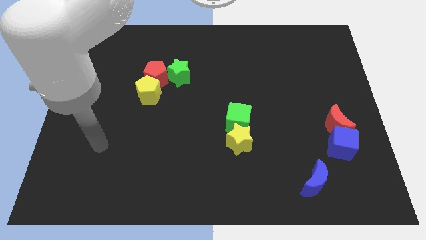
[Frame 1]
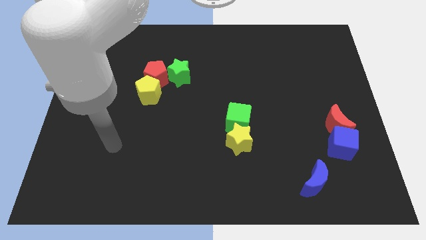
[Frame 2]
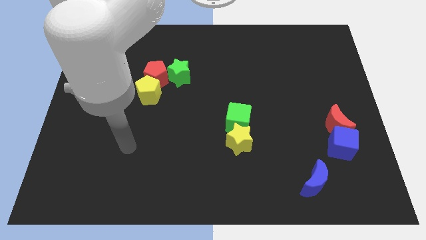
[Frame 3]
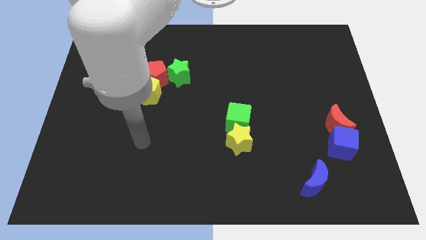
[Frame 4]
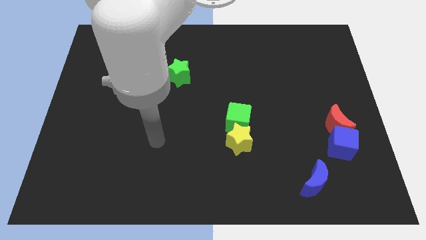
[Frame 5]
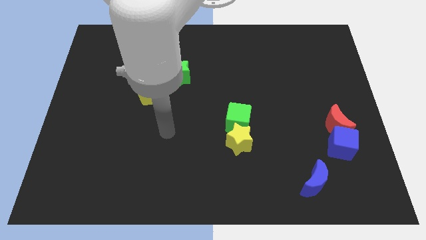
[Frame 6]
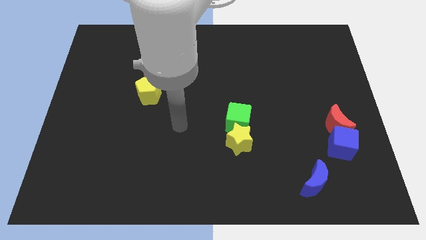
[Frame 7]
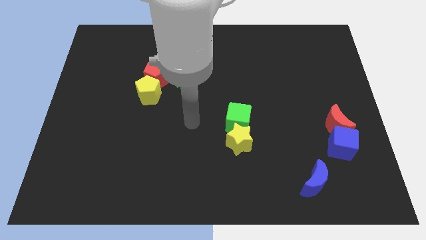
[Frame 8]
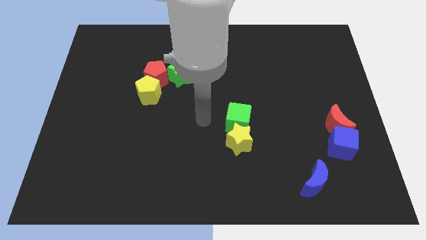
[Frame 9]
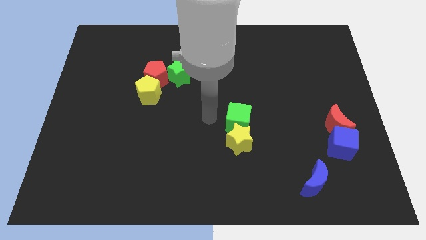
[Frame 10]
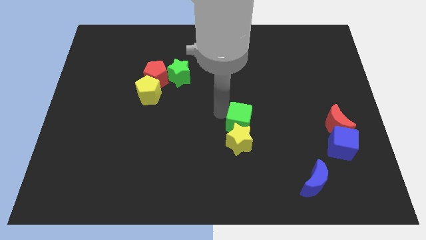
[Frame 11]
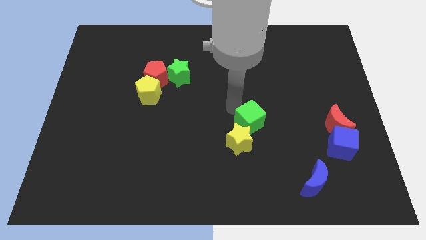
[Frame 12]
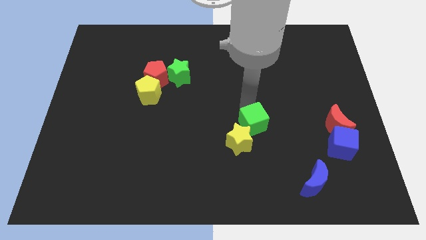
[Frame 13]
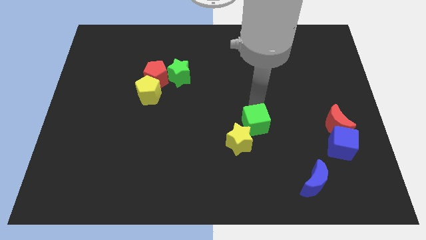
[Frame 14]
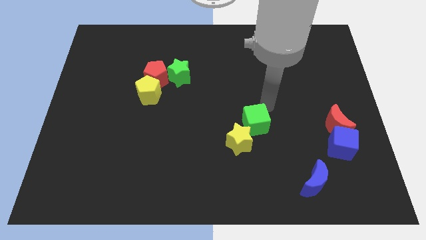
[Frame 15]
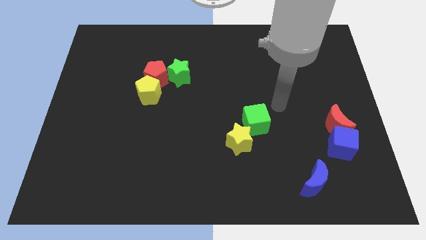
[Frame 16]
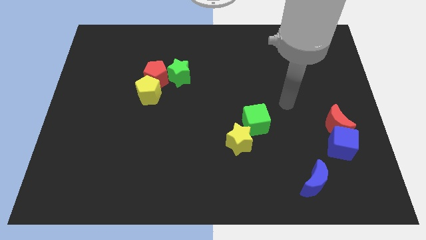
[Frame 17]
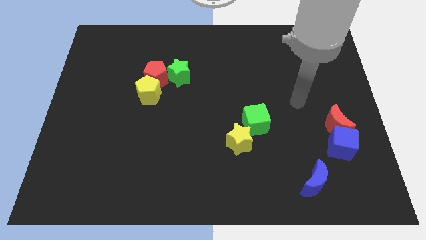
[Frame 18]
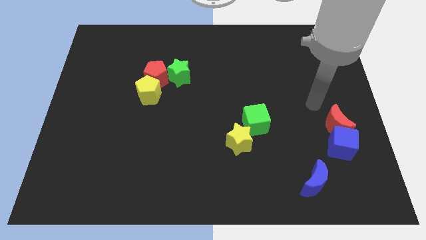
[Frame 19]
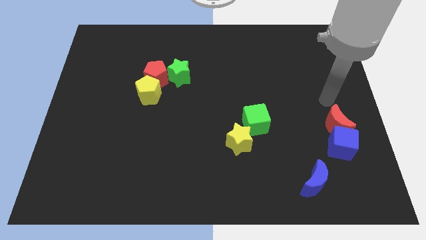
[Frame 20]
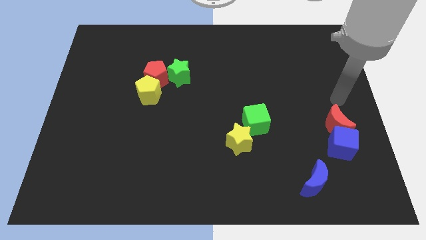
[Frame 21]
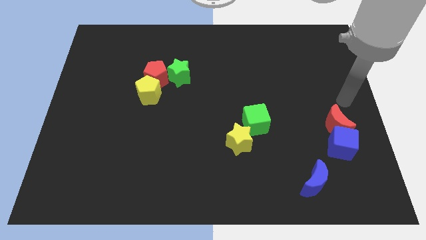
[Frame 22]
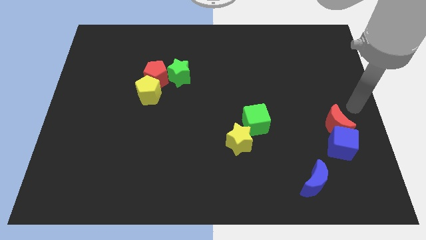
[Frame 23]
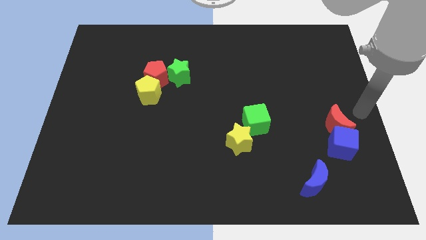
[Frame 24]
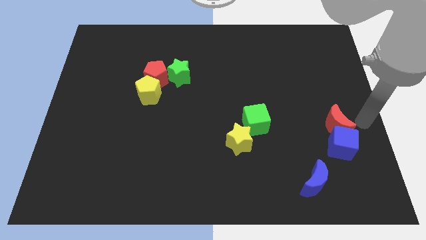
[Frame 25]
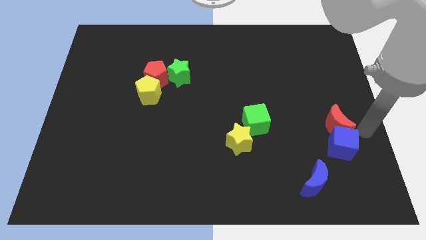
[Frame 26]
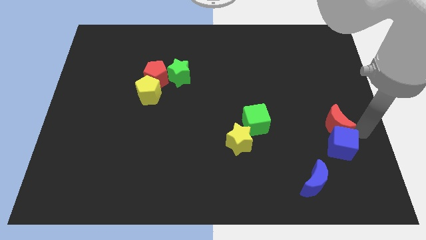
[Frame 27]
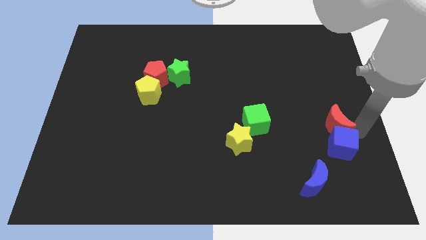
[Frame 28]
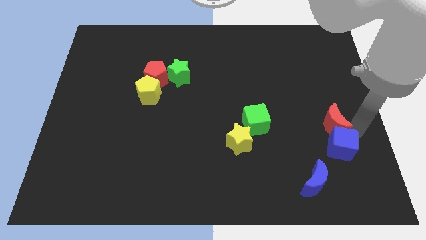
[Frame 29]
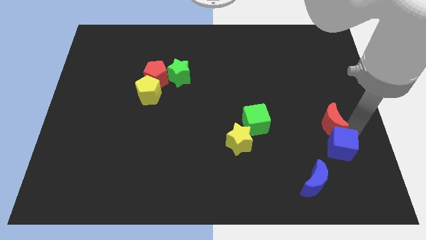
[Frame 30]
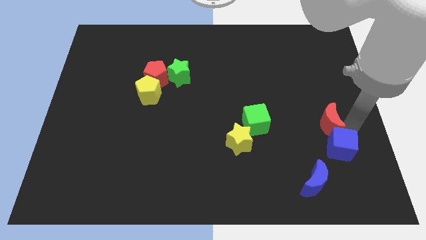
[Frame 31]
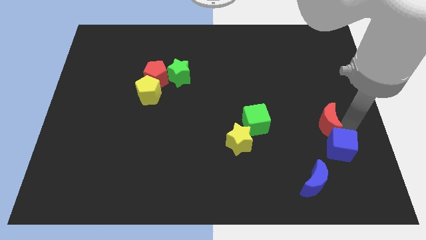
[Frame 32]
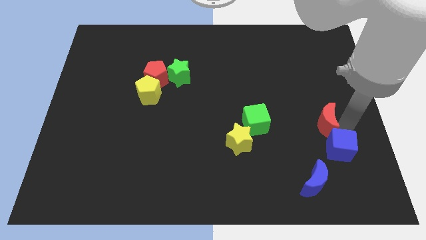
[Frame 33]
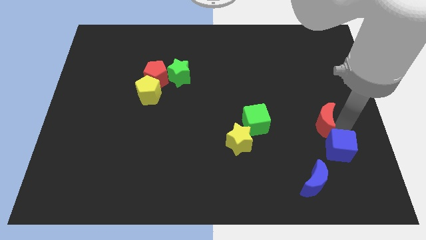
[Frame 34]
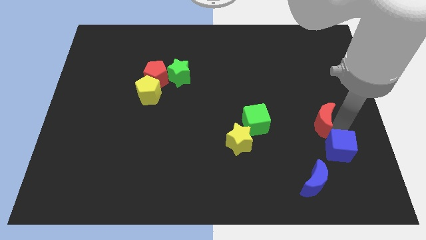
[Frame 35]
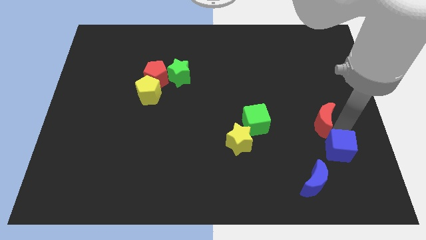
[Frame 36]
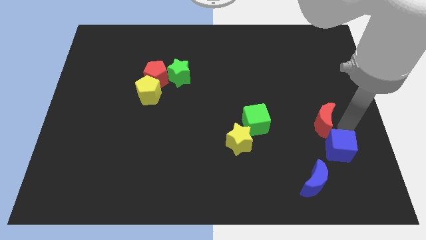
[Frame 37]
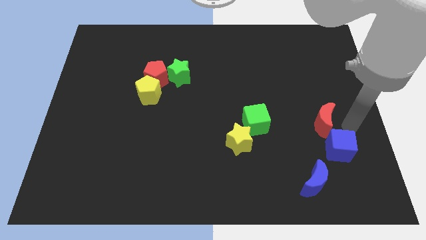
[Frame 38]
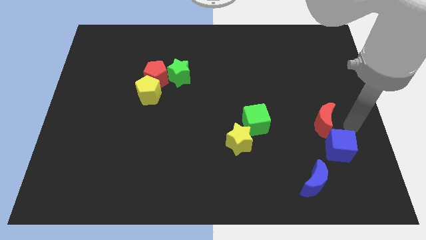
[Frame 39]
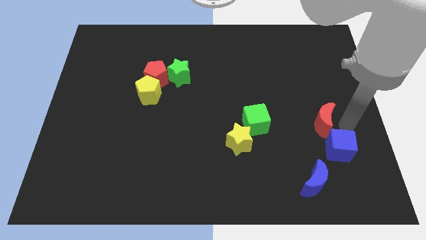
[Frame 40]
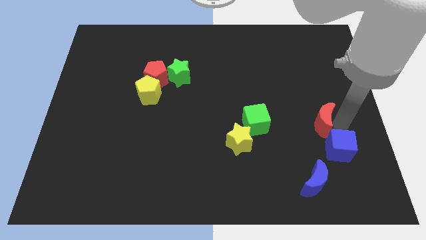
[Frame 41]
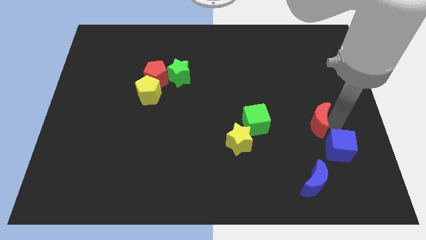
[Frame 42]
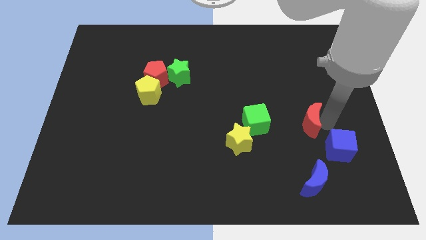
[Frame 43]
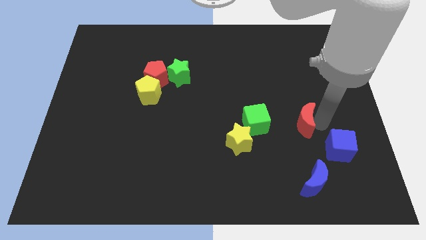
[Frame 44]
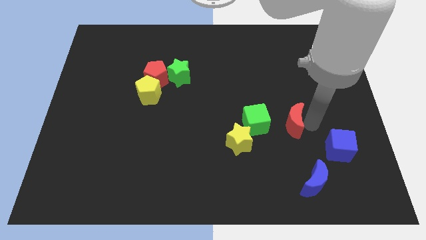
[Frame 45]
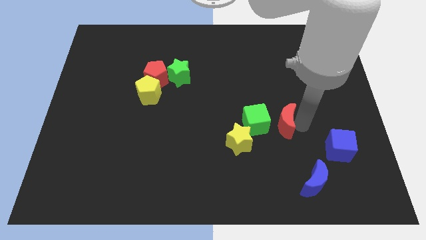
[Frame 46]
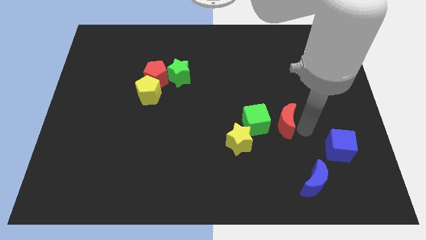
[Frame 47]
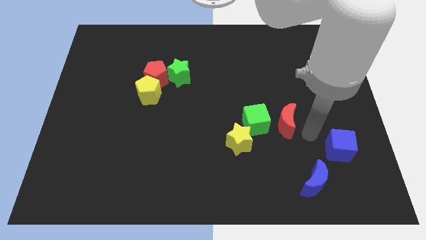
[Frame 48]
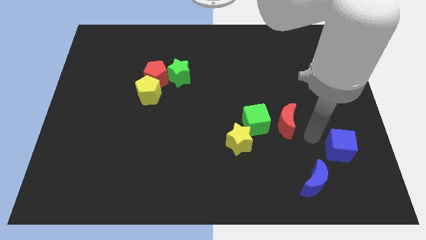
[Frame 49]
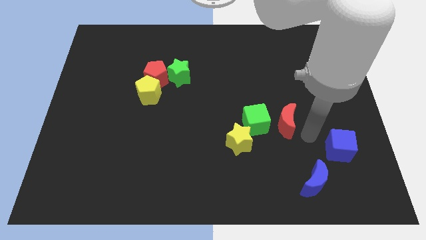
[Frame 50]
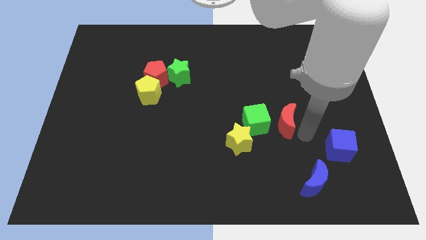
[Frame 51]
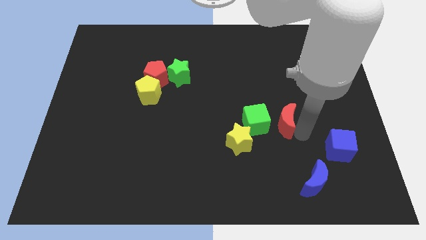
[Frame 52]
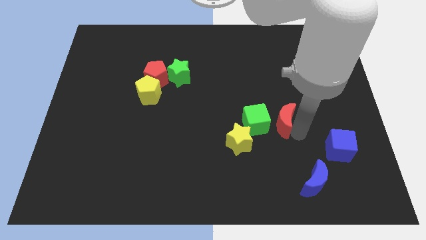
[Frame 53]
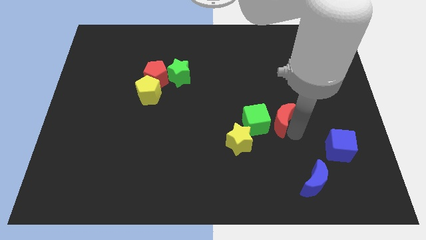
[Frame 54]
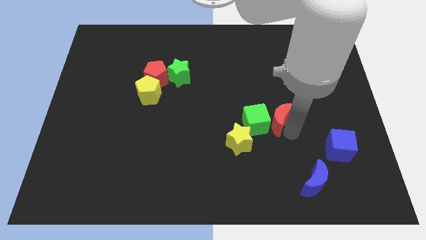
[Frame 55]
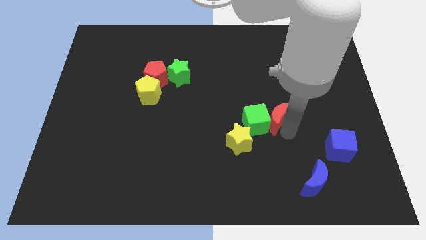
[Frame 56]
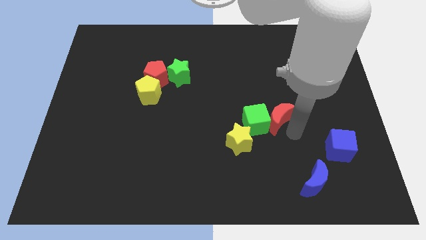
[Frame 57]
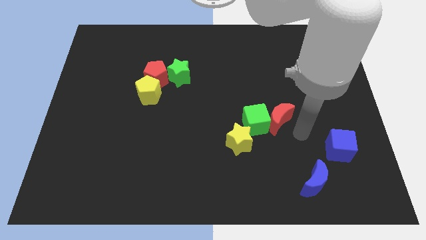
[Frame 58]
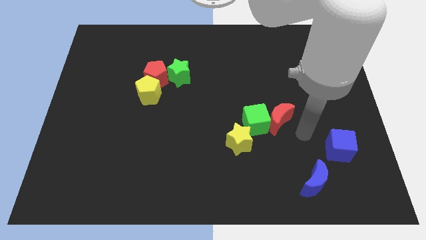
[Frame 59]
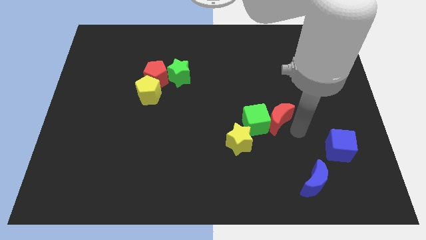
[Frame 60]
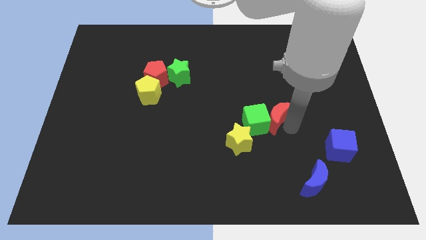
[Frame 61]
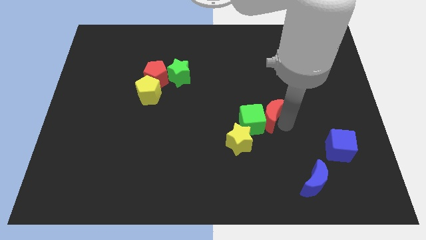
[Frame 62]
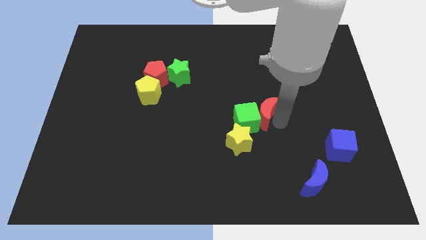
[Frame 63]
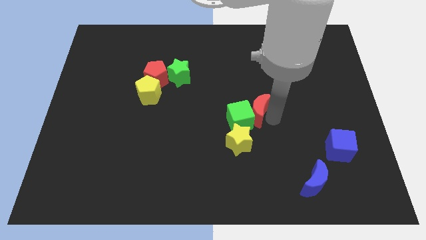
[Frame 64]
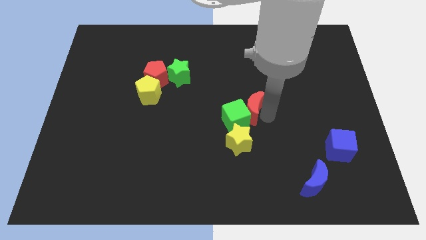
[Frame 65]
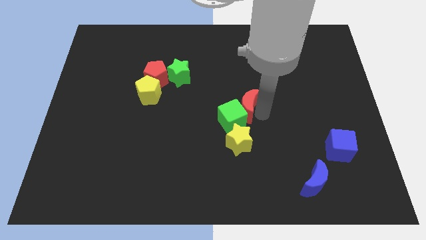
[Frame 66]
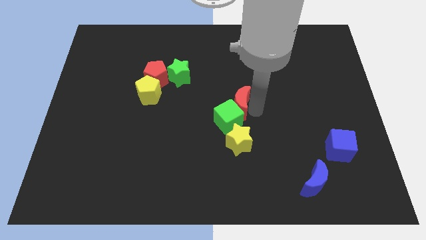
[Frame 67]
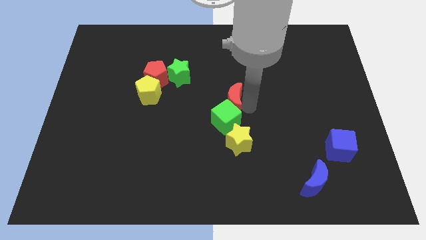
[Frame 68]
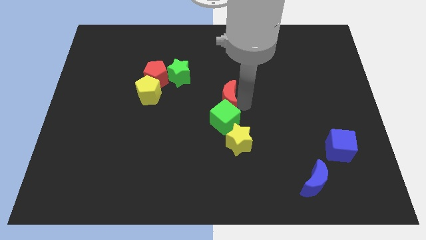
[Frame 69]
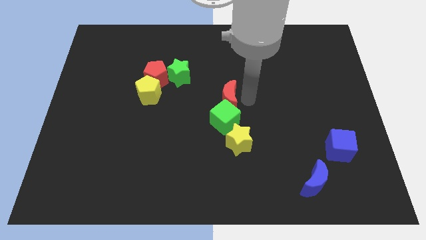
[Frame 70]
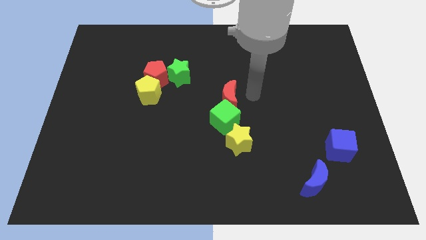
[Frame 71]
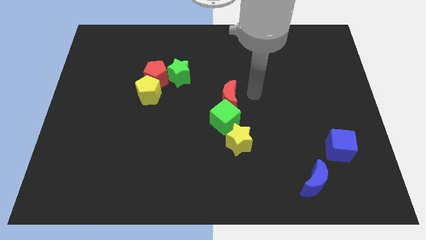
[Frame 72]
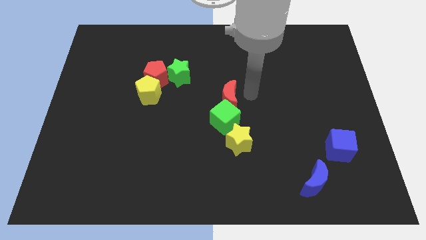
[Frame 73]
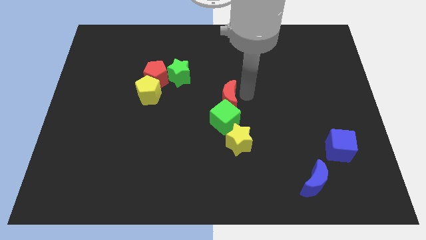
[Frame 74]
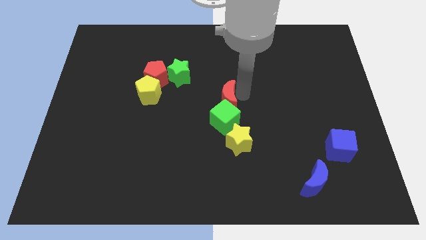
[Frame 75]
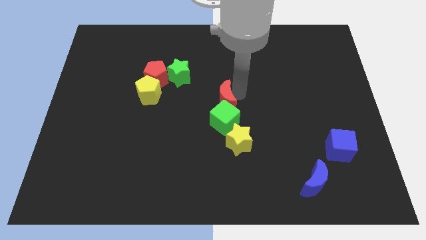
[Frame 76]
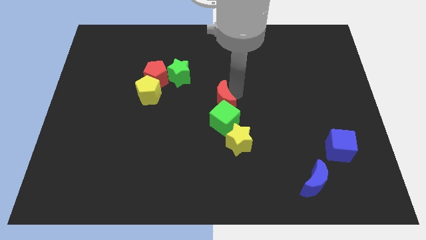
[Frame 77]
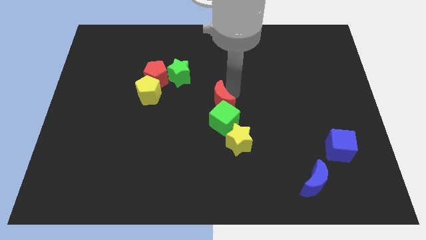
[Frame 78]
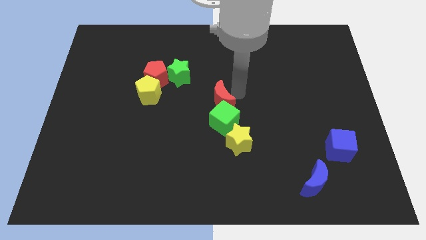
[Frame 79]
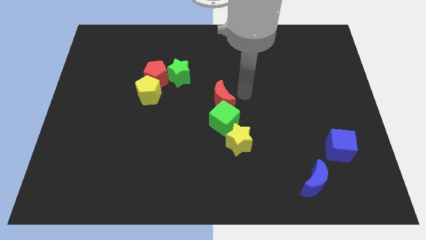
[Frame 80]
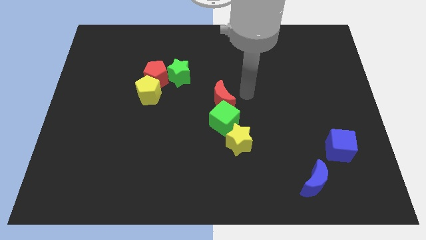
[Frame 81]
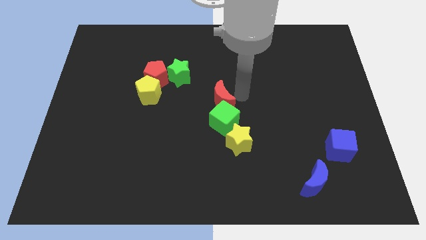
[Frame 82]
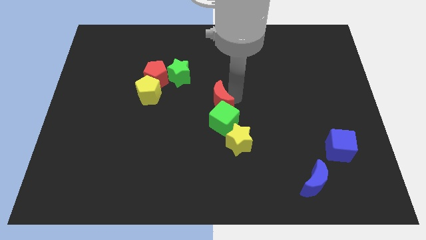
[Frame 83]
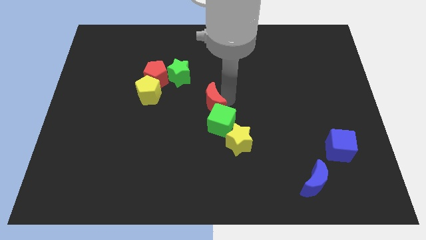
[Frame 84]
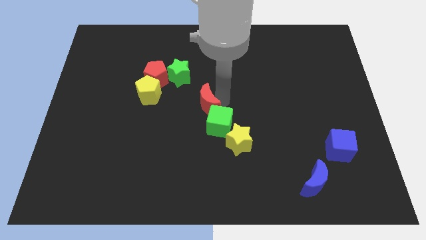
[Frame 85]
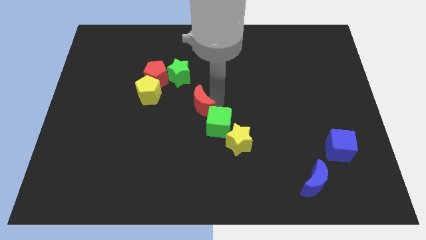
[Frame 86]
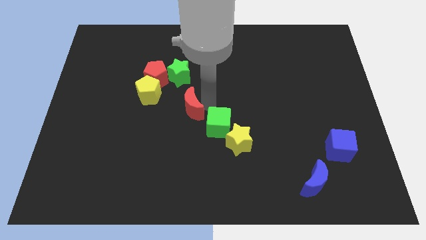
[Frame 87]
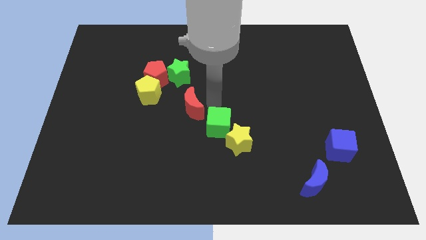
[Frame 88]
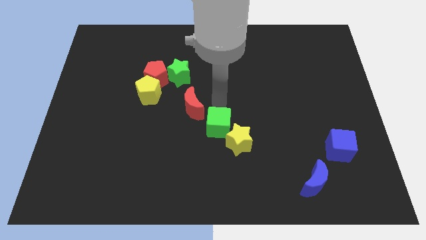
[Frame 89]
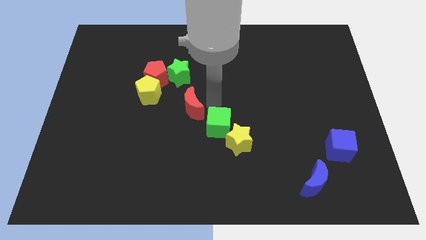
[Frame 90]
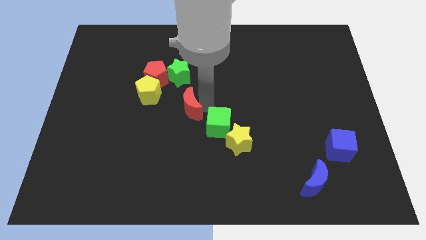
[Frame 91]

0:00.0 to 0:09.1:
put the red moon to the bottom right side of the yellow pentagon
